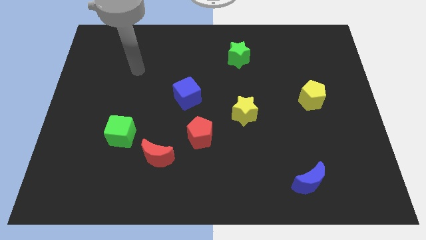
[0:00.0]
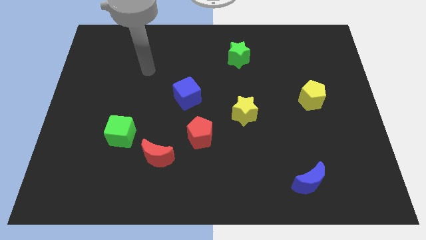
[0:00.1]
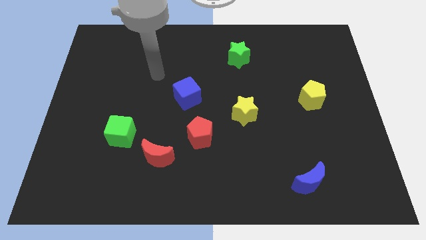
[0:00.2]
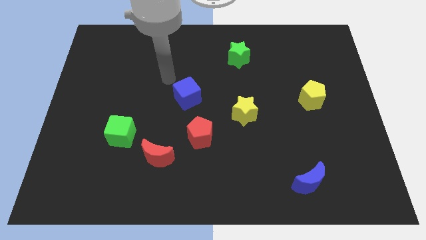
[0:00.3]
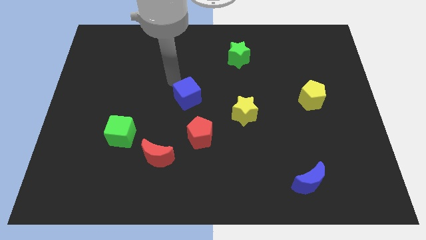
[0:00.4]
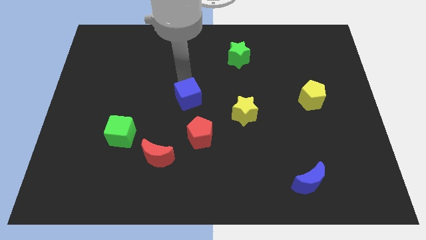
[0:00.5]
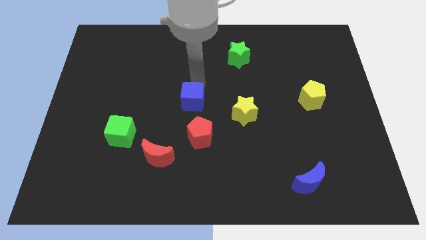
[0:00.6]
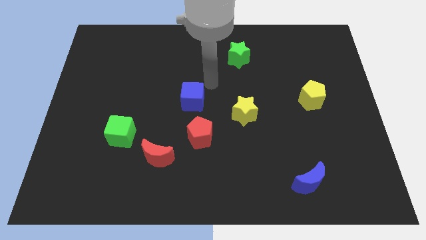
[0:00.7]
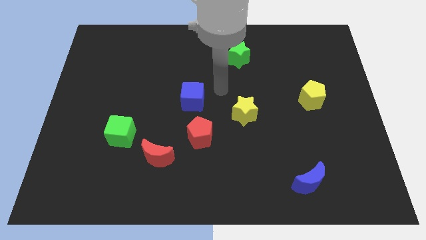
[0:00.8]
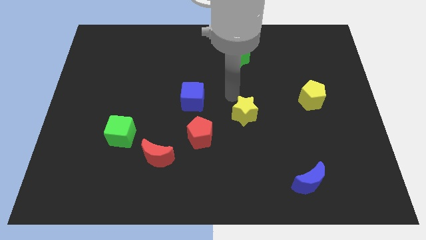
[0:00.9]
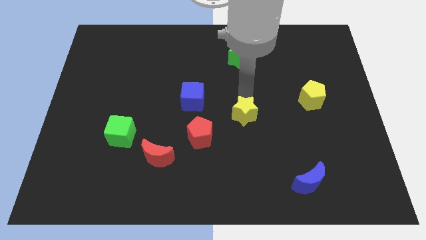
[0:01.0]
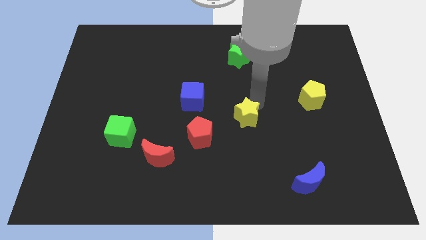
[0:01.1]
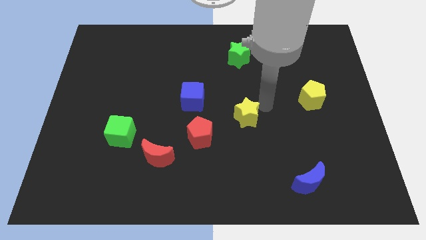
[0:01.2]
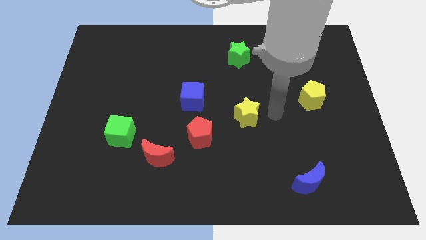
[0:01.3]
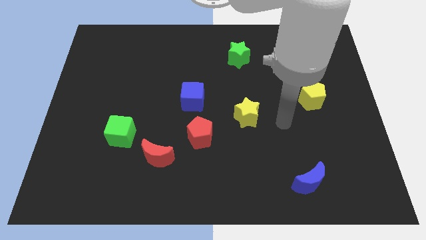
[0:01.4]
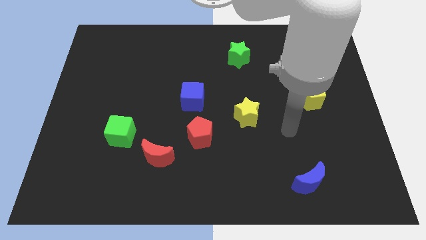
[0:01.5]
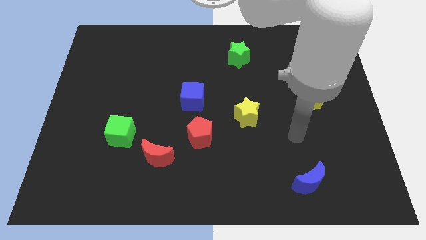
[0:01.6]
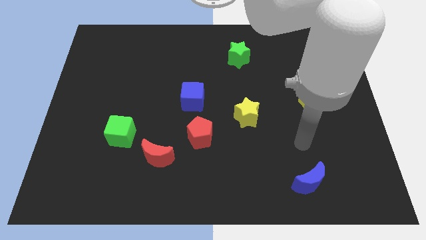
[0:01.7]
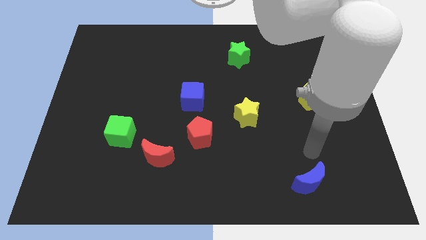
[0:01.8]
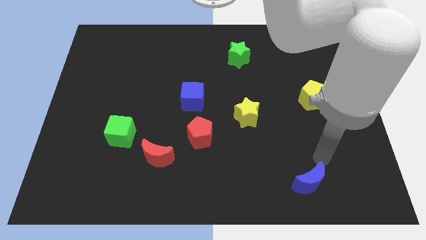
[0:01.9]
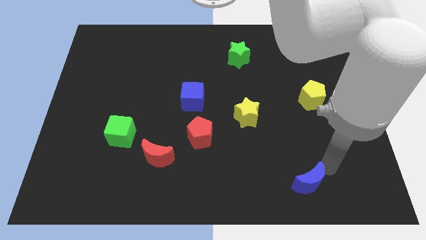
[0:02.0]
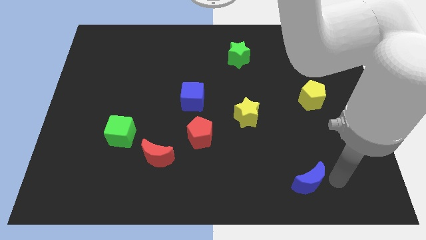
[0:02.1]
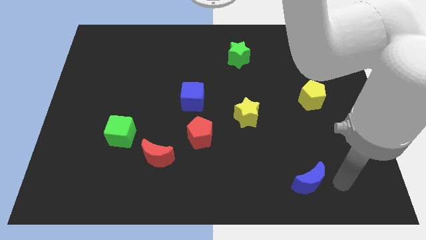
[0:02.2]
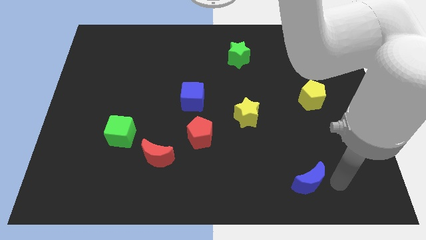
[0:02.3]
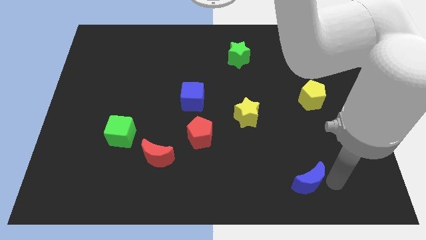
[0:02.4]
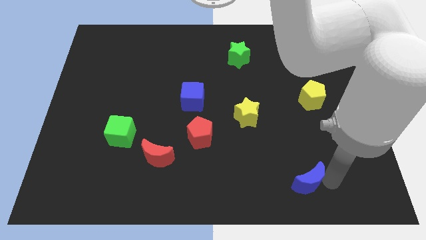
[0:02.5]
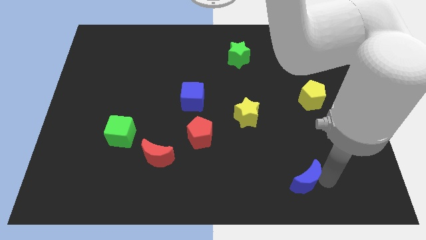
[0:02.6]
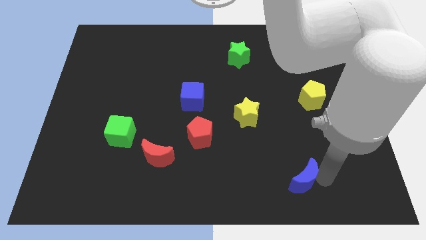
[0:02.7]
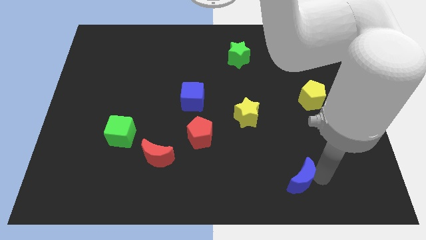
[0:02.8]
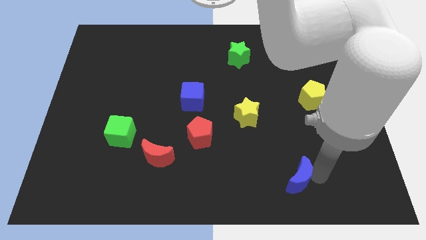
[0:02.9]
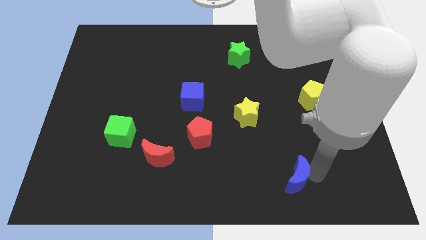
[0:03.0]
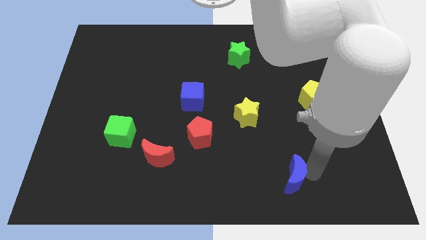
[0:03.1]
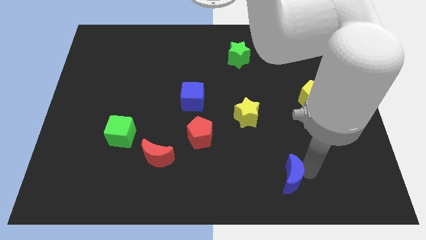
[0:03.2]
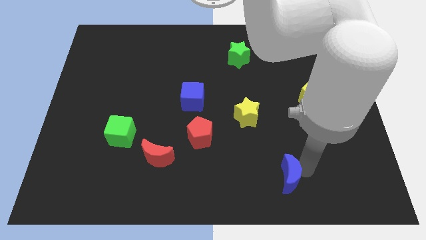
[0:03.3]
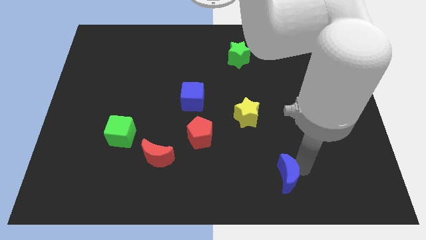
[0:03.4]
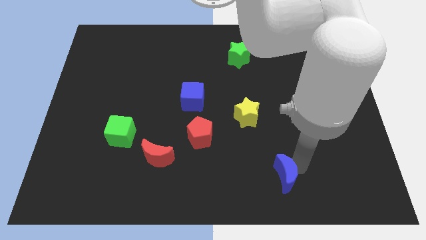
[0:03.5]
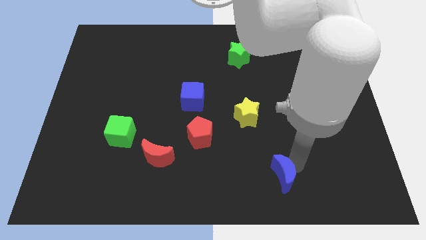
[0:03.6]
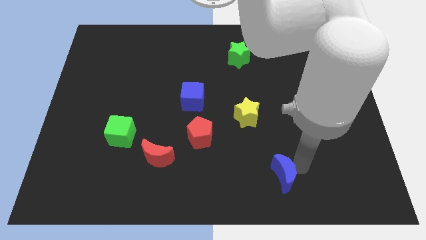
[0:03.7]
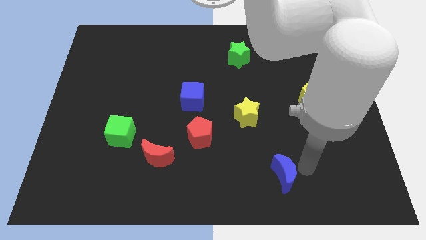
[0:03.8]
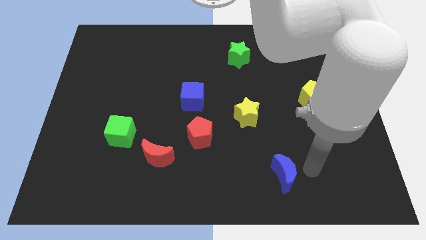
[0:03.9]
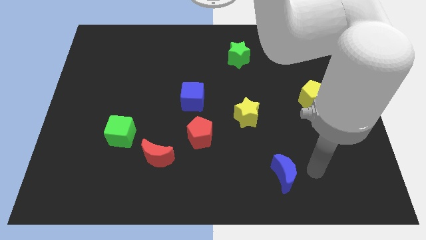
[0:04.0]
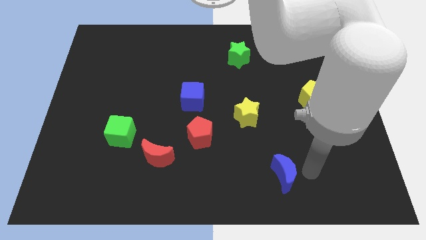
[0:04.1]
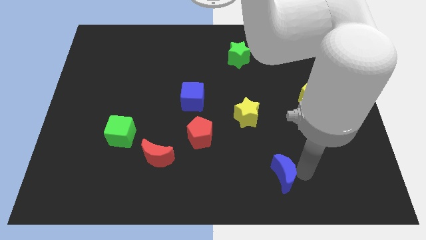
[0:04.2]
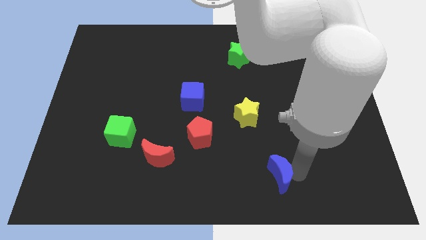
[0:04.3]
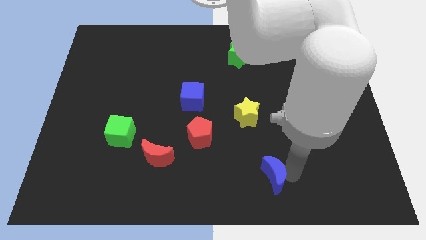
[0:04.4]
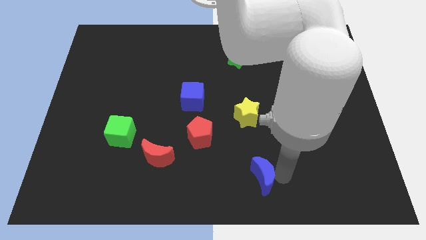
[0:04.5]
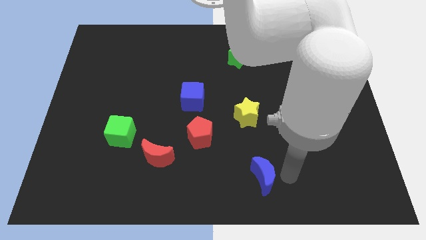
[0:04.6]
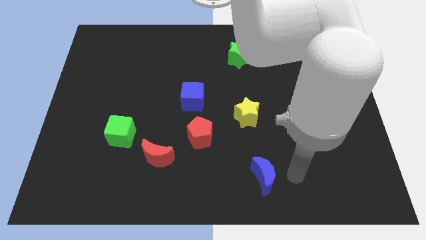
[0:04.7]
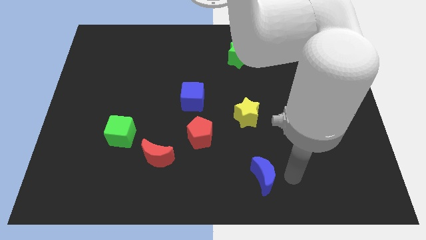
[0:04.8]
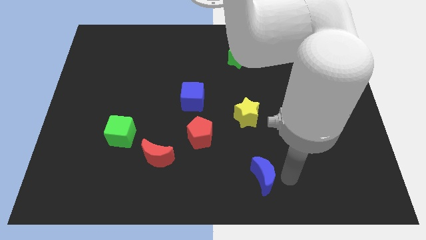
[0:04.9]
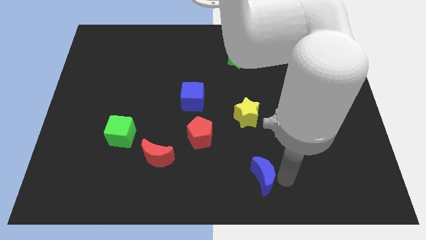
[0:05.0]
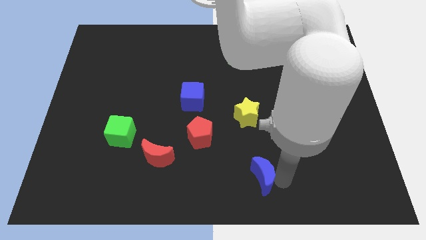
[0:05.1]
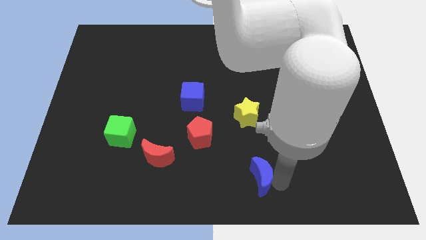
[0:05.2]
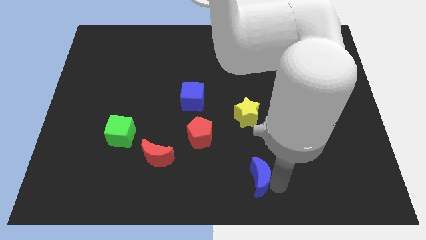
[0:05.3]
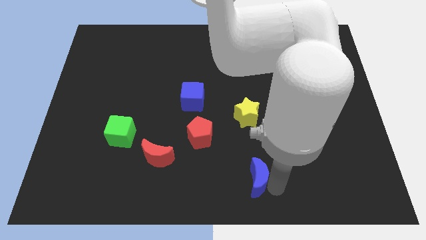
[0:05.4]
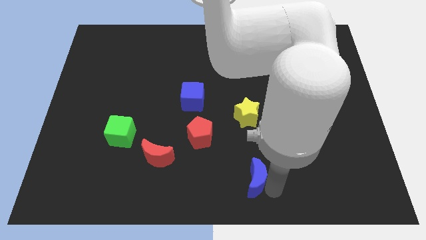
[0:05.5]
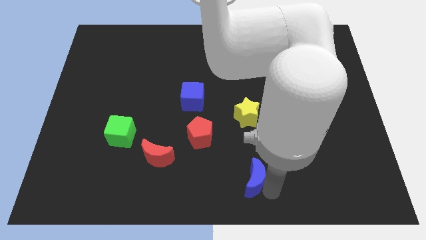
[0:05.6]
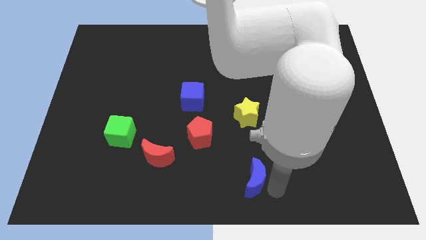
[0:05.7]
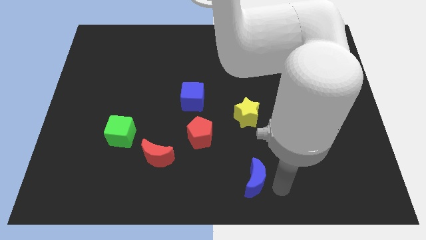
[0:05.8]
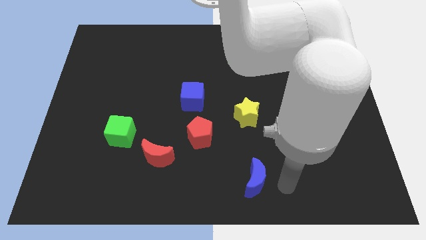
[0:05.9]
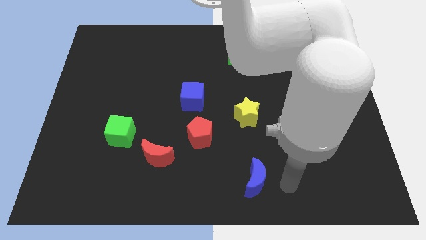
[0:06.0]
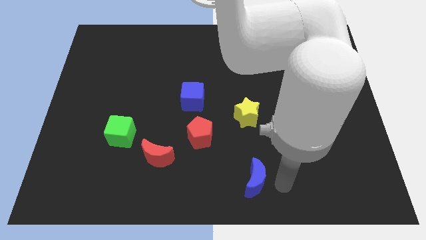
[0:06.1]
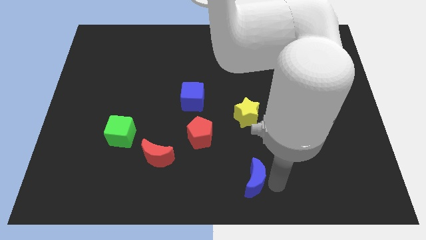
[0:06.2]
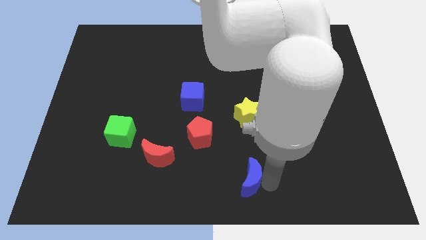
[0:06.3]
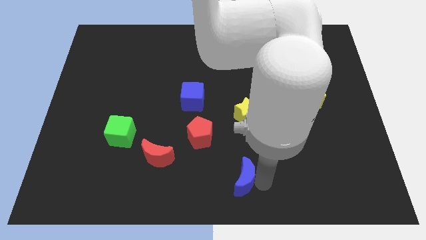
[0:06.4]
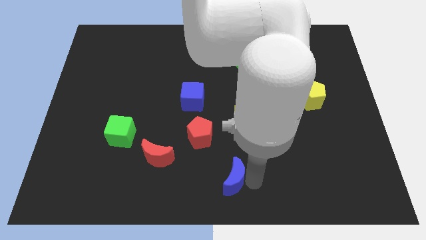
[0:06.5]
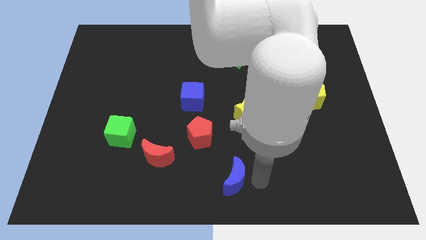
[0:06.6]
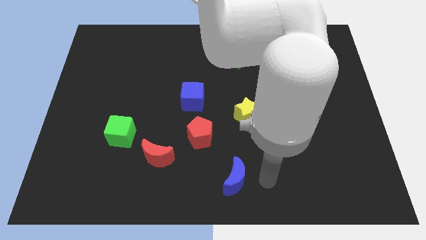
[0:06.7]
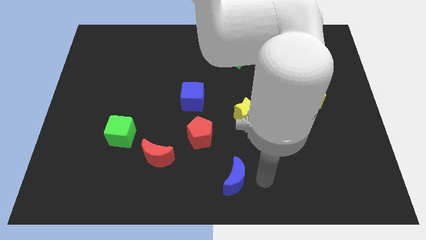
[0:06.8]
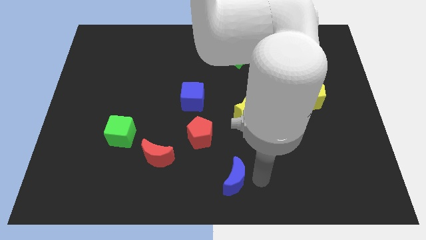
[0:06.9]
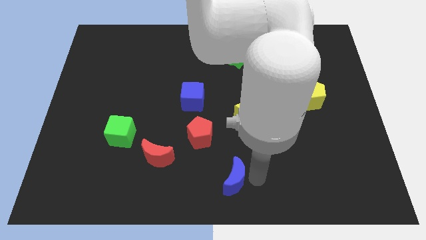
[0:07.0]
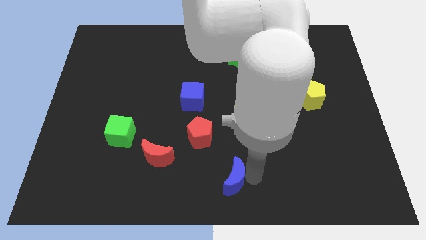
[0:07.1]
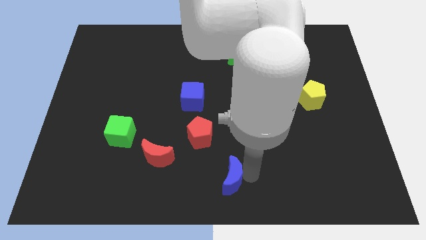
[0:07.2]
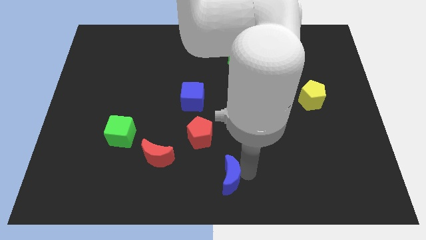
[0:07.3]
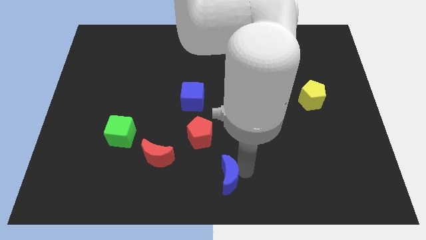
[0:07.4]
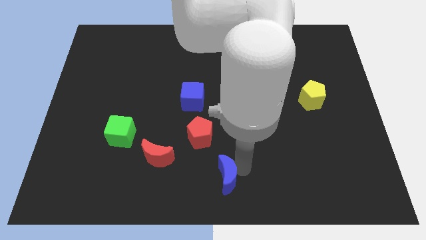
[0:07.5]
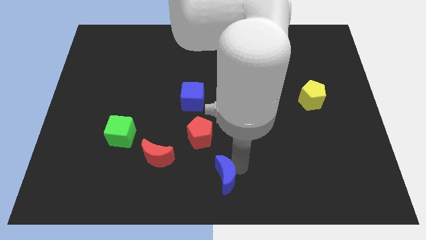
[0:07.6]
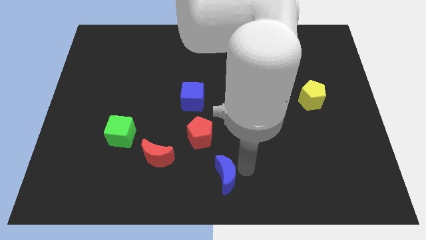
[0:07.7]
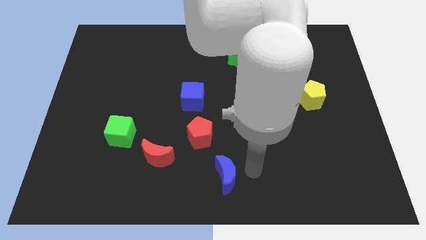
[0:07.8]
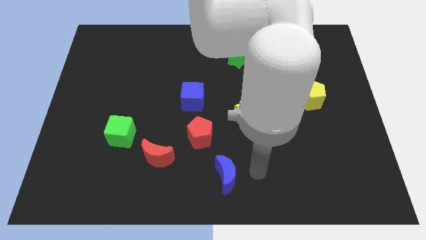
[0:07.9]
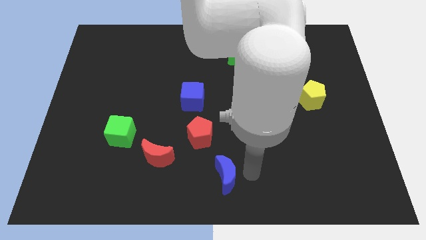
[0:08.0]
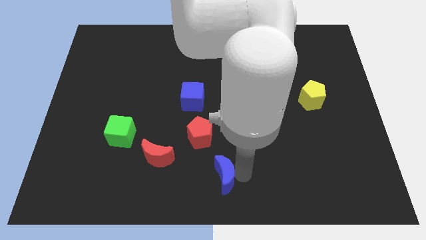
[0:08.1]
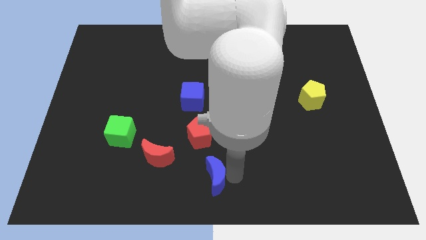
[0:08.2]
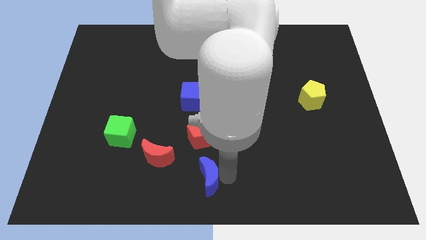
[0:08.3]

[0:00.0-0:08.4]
move the blue moon left
